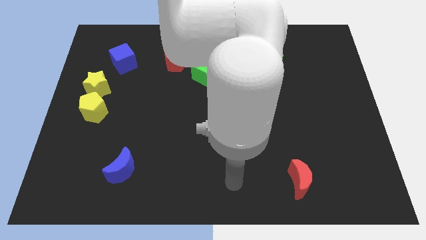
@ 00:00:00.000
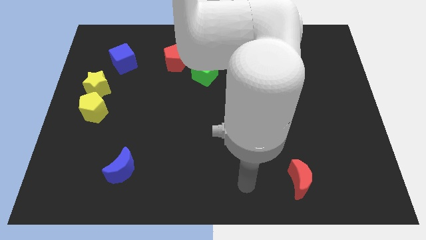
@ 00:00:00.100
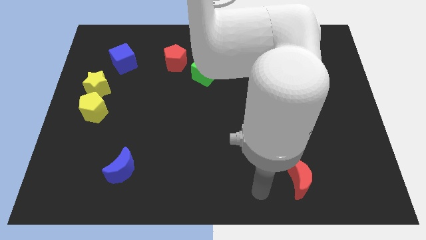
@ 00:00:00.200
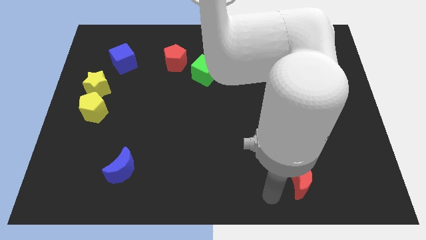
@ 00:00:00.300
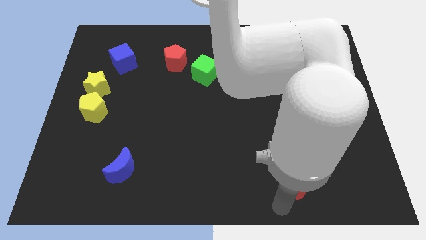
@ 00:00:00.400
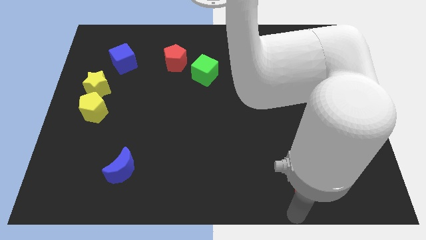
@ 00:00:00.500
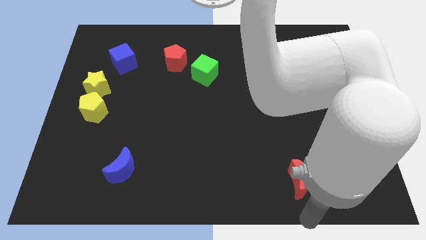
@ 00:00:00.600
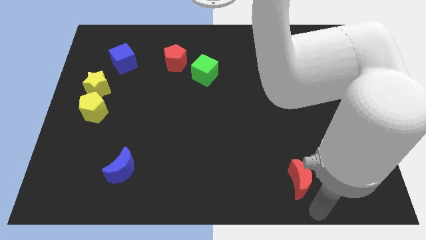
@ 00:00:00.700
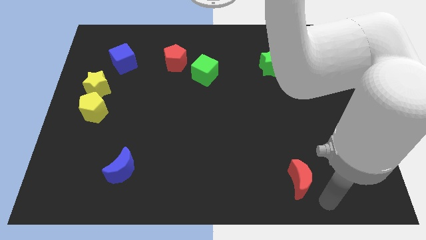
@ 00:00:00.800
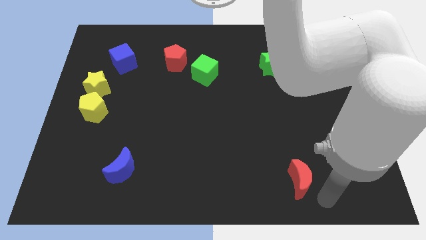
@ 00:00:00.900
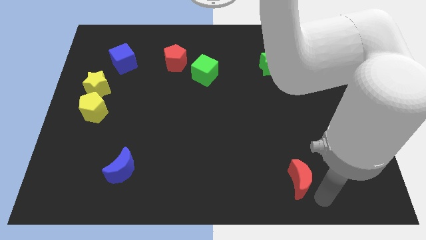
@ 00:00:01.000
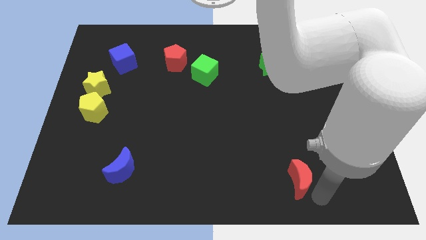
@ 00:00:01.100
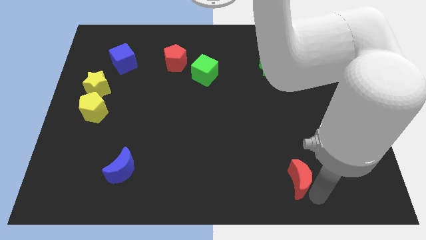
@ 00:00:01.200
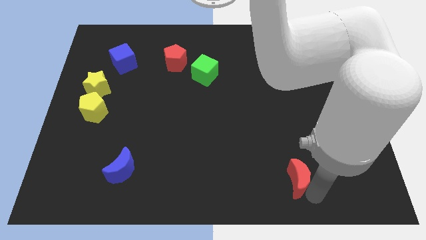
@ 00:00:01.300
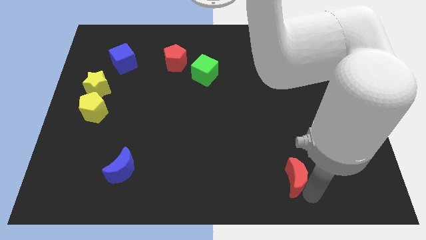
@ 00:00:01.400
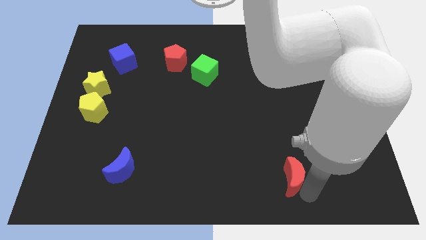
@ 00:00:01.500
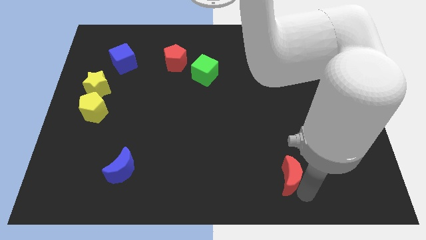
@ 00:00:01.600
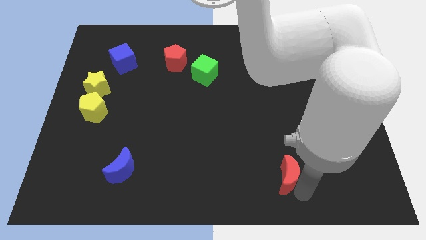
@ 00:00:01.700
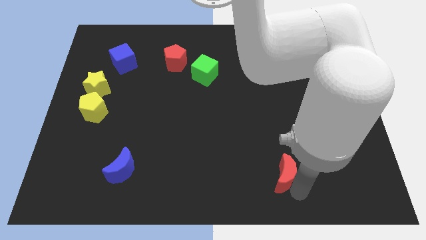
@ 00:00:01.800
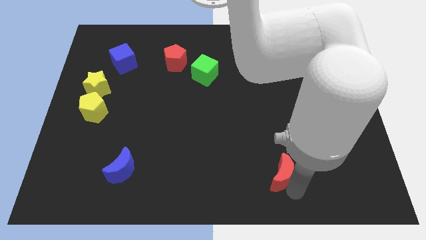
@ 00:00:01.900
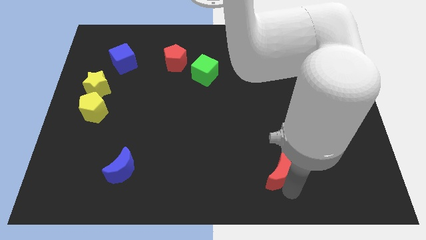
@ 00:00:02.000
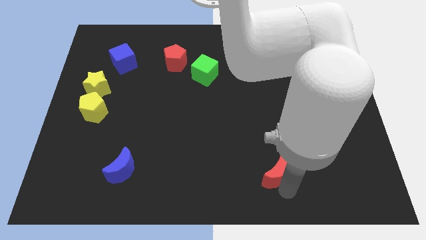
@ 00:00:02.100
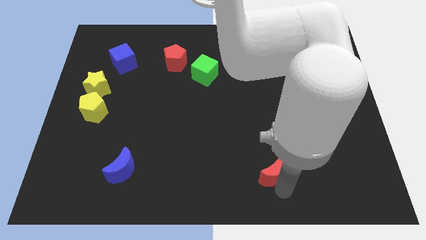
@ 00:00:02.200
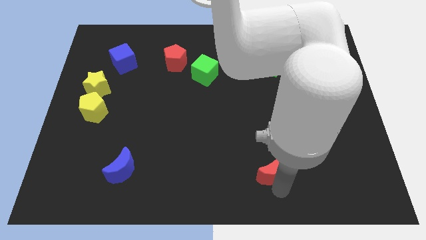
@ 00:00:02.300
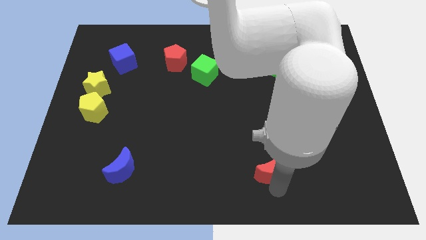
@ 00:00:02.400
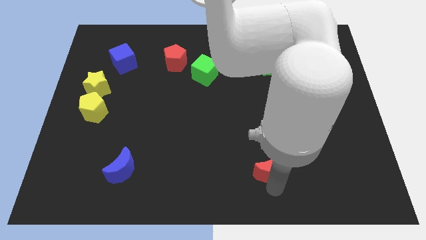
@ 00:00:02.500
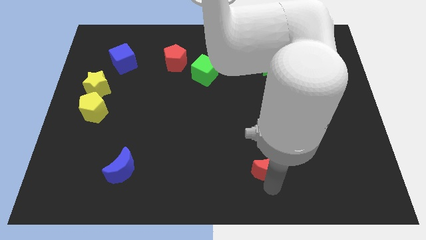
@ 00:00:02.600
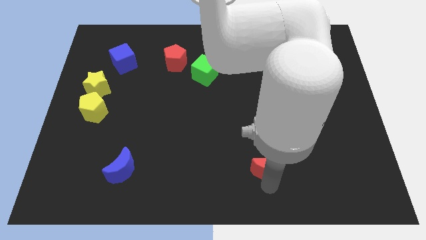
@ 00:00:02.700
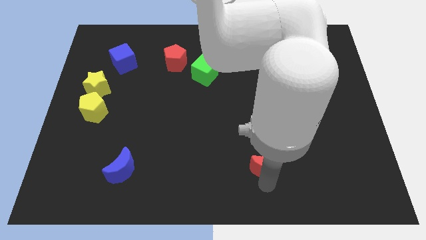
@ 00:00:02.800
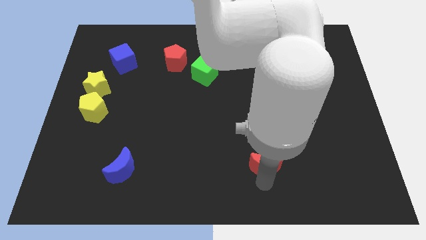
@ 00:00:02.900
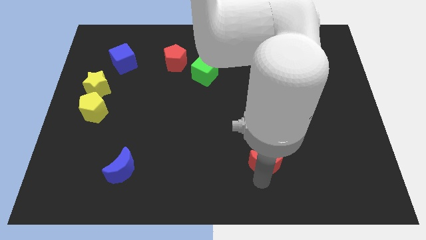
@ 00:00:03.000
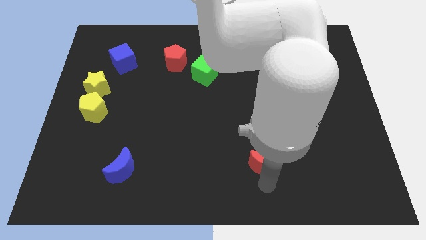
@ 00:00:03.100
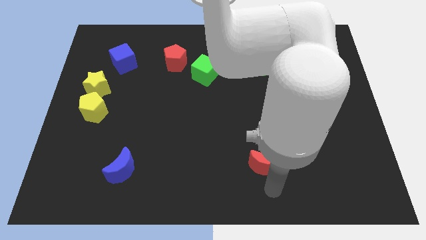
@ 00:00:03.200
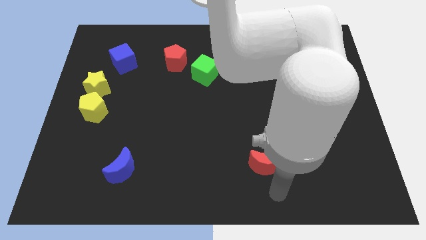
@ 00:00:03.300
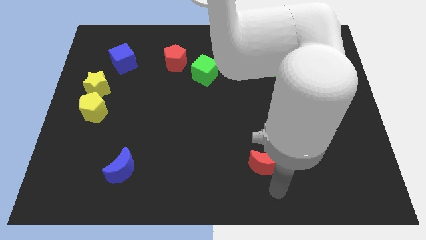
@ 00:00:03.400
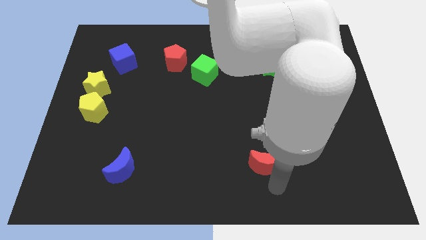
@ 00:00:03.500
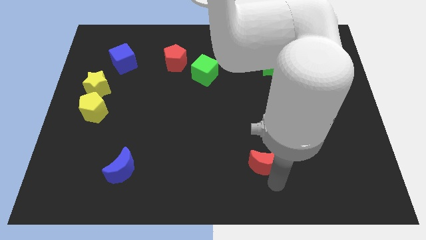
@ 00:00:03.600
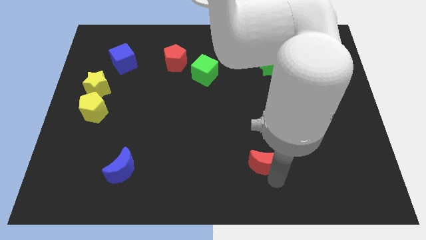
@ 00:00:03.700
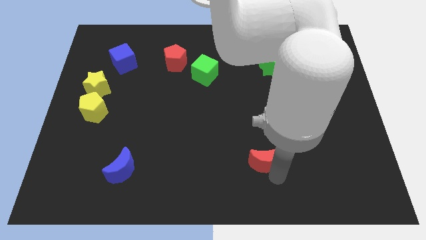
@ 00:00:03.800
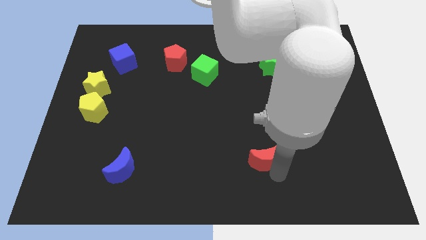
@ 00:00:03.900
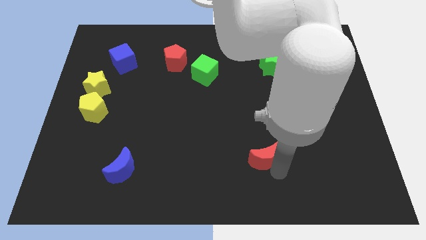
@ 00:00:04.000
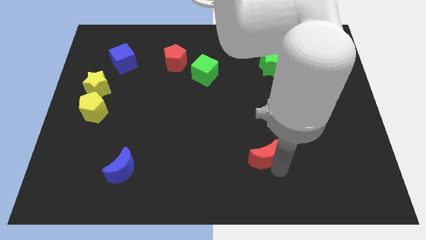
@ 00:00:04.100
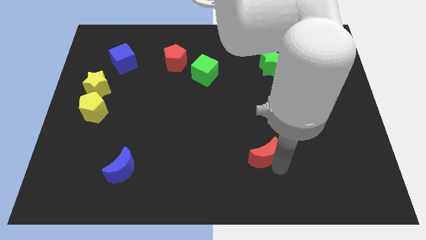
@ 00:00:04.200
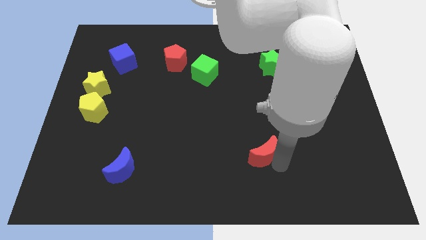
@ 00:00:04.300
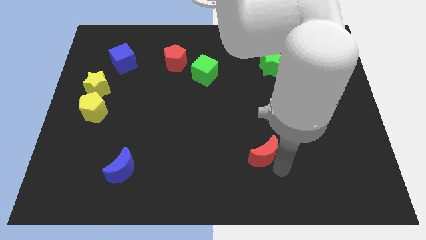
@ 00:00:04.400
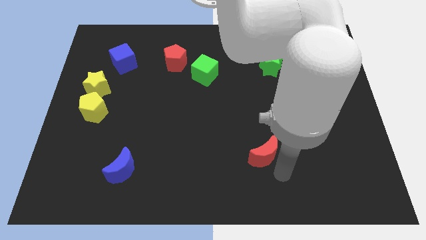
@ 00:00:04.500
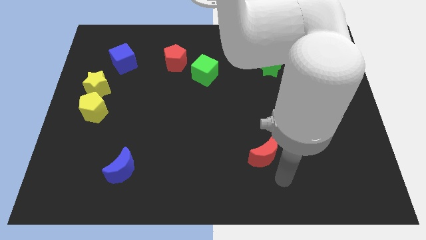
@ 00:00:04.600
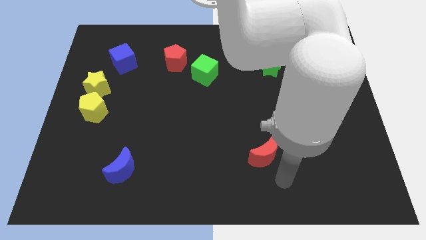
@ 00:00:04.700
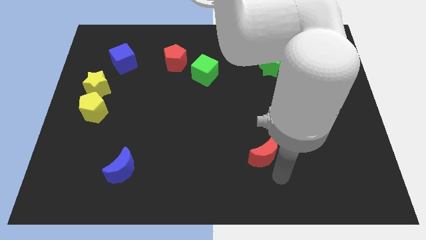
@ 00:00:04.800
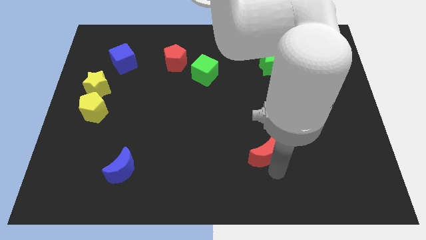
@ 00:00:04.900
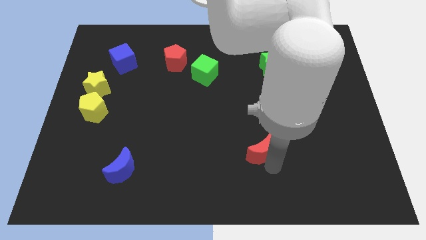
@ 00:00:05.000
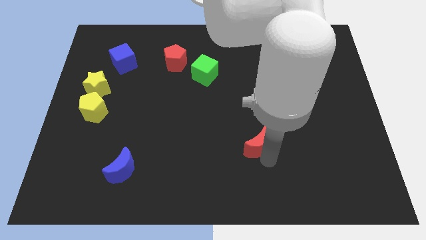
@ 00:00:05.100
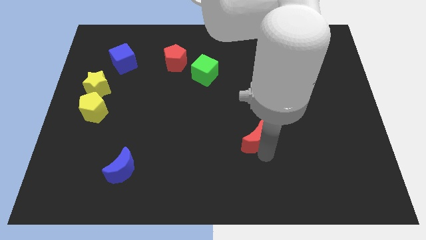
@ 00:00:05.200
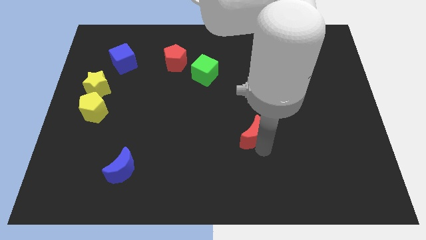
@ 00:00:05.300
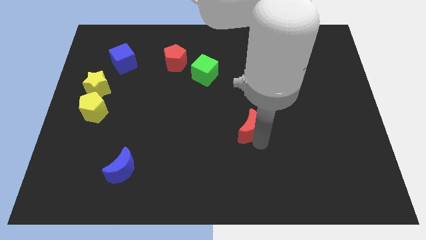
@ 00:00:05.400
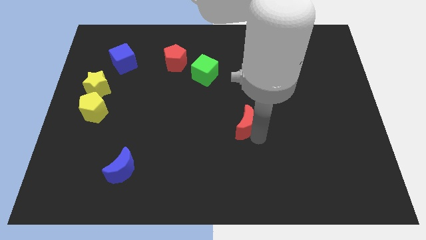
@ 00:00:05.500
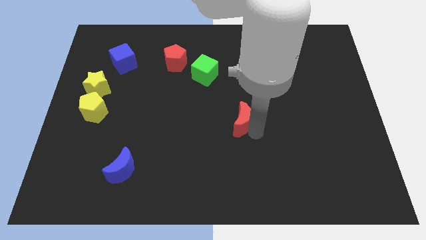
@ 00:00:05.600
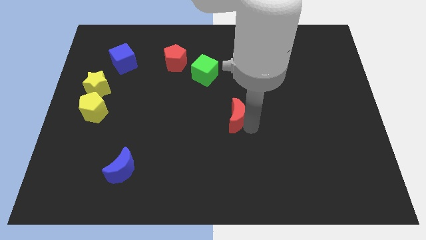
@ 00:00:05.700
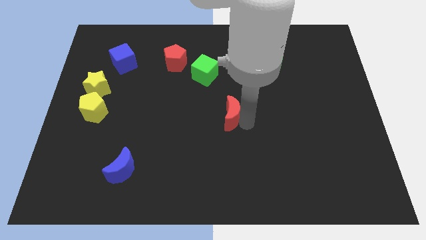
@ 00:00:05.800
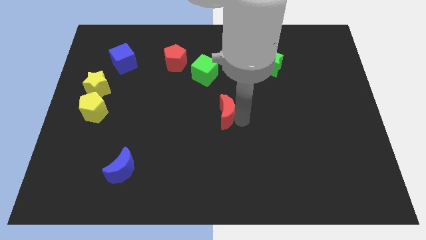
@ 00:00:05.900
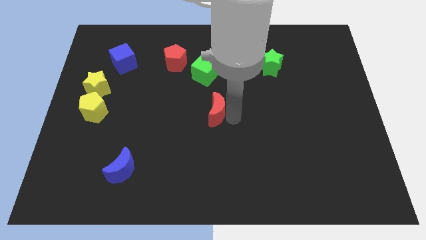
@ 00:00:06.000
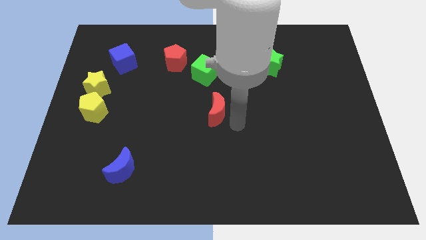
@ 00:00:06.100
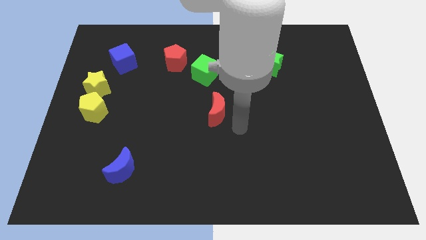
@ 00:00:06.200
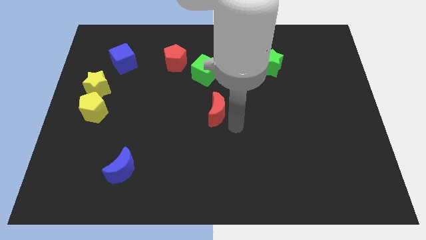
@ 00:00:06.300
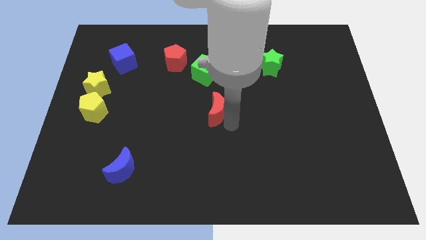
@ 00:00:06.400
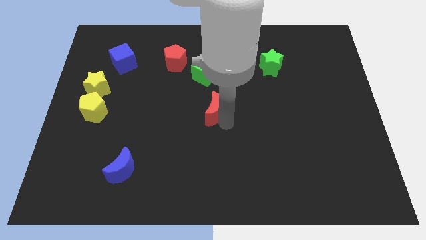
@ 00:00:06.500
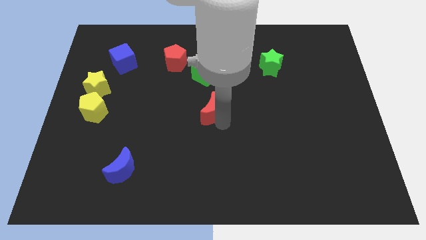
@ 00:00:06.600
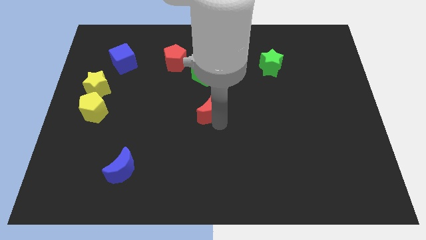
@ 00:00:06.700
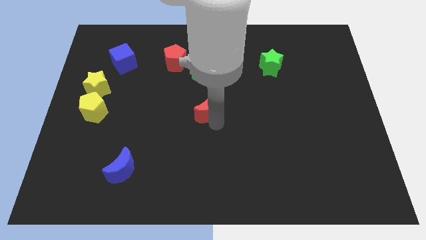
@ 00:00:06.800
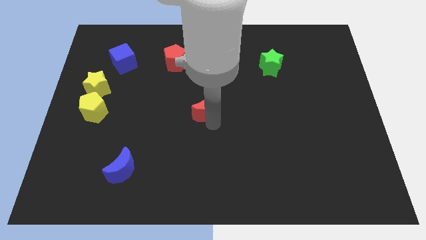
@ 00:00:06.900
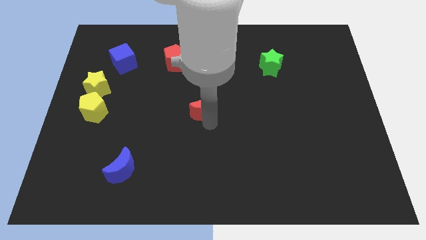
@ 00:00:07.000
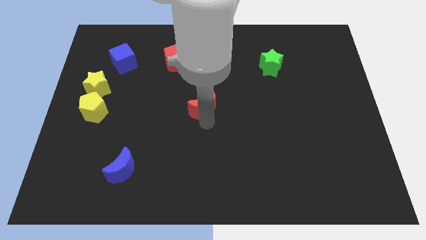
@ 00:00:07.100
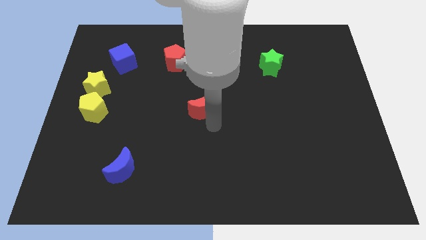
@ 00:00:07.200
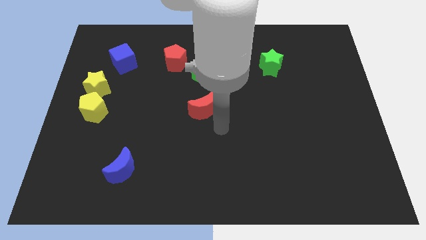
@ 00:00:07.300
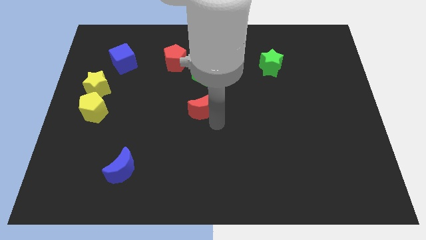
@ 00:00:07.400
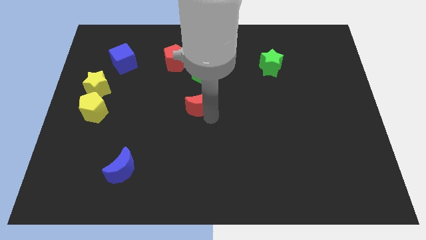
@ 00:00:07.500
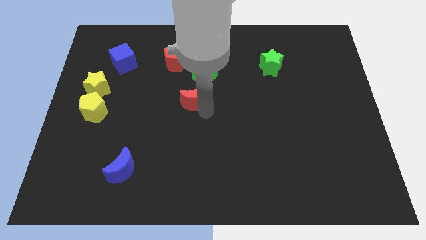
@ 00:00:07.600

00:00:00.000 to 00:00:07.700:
slide the red moon to the bottom left of the green cube
